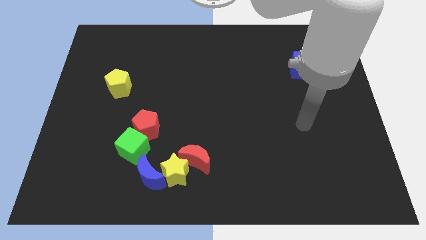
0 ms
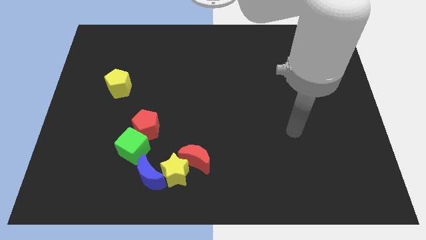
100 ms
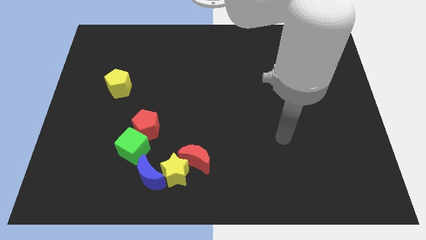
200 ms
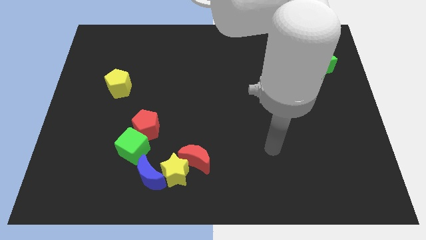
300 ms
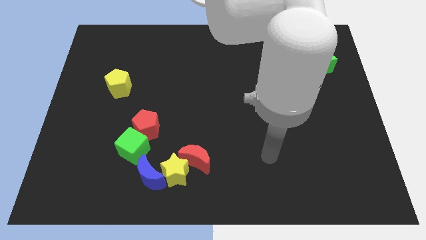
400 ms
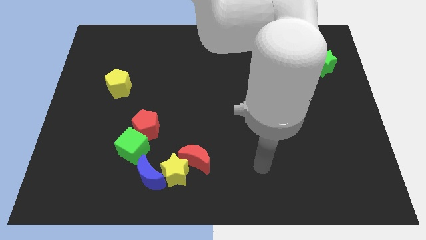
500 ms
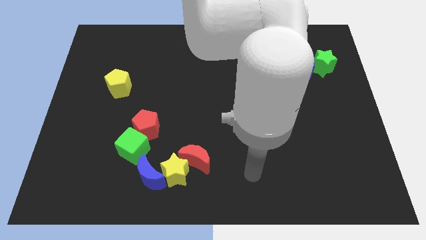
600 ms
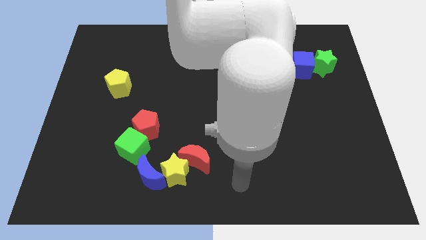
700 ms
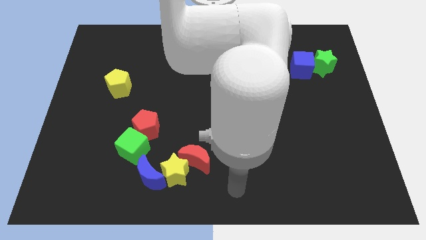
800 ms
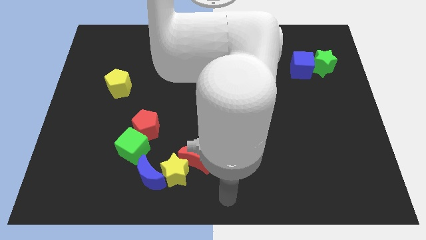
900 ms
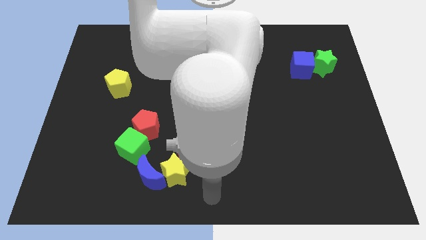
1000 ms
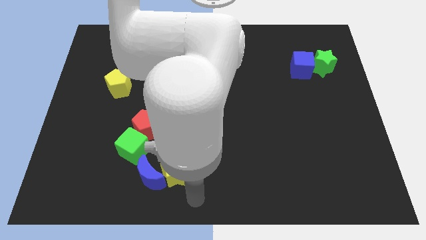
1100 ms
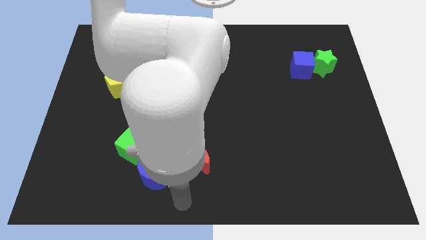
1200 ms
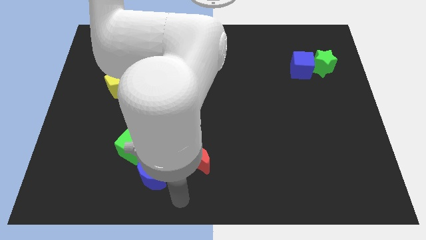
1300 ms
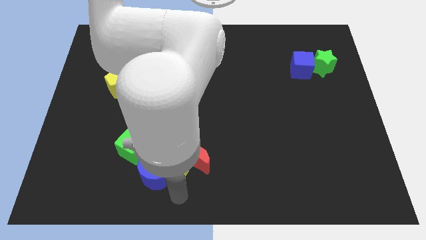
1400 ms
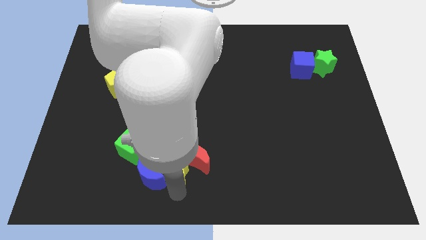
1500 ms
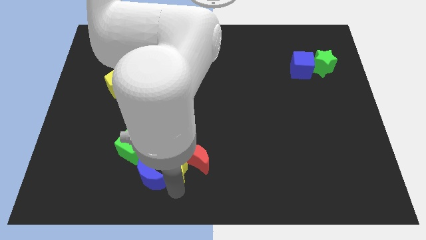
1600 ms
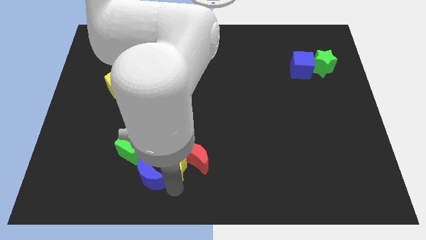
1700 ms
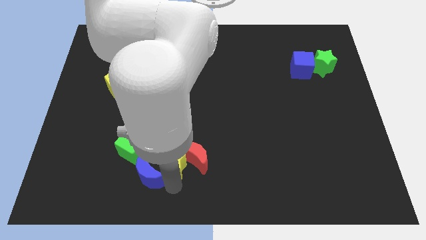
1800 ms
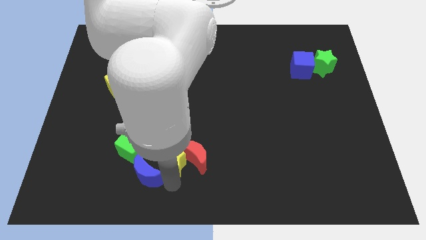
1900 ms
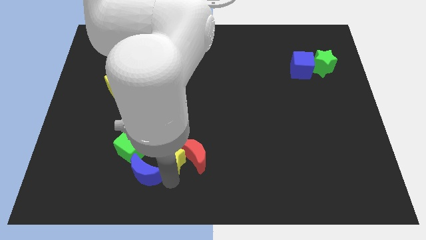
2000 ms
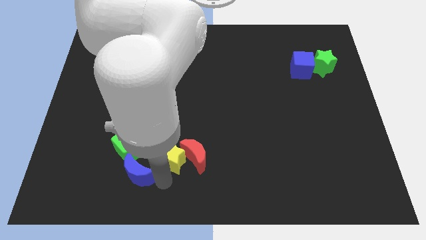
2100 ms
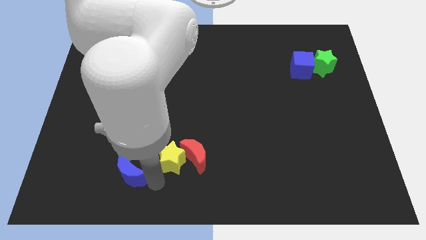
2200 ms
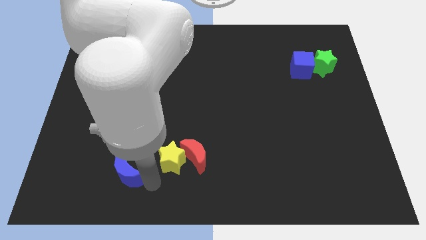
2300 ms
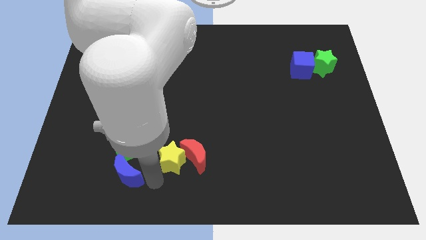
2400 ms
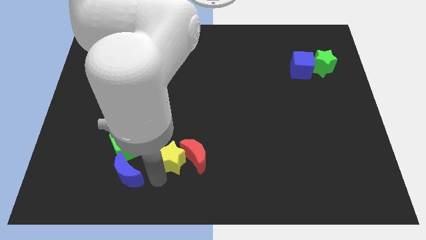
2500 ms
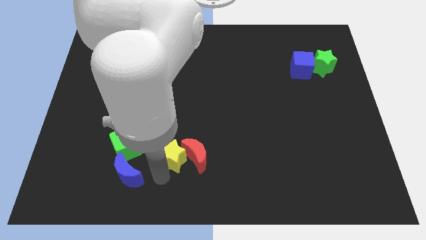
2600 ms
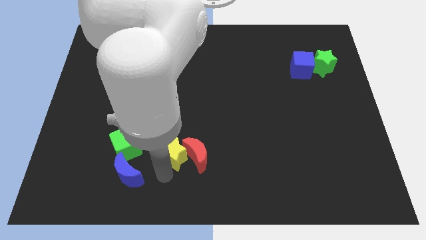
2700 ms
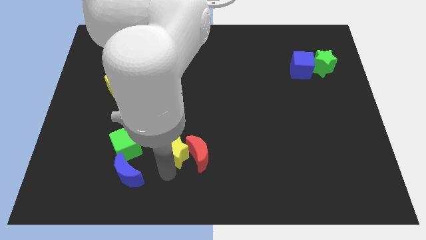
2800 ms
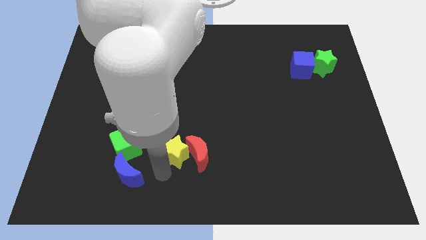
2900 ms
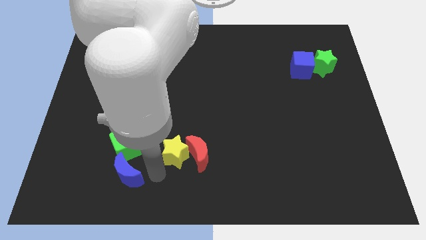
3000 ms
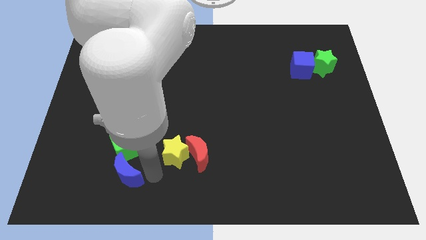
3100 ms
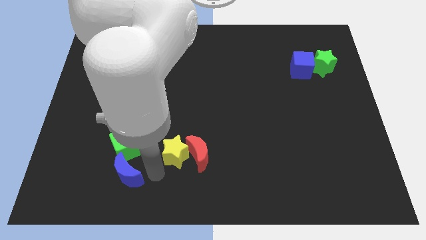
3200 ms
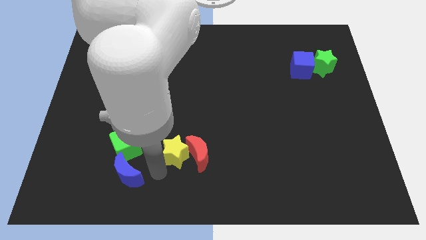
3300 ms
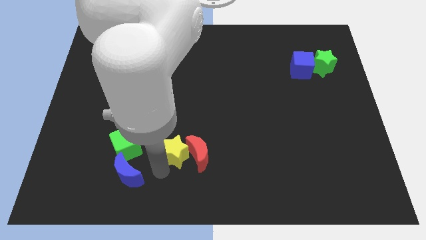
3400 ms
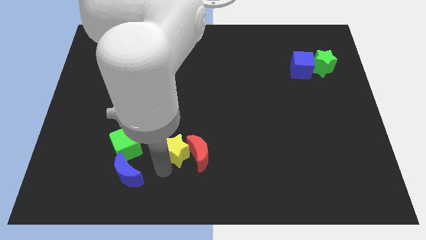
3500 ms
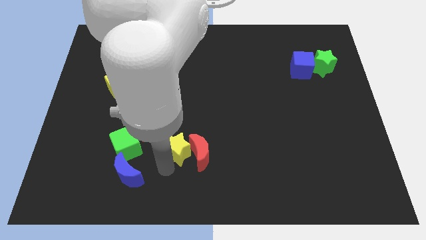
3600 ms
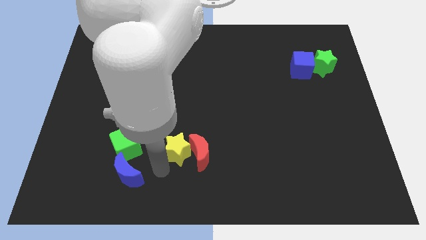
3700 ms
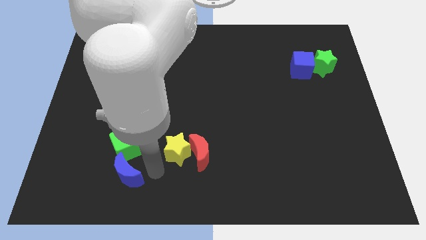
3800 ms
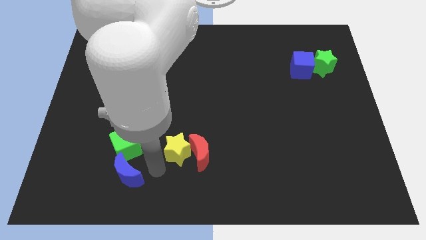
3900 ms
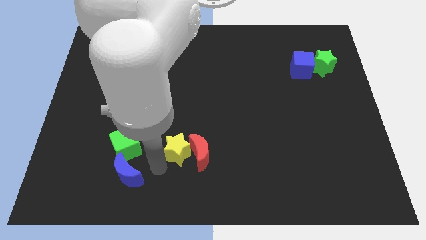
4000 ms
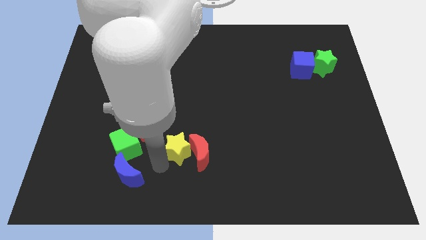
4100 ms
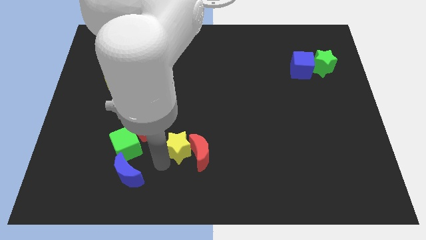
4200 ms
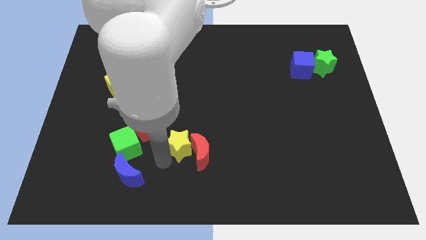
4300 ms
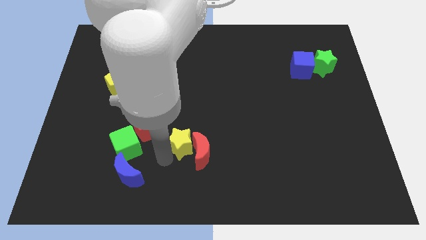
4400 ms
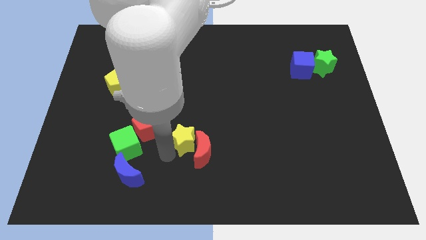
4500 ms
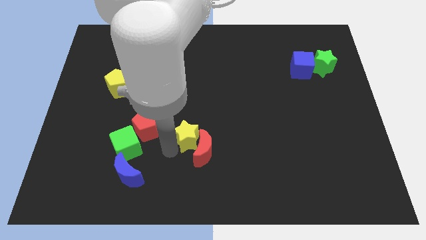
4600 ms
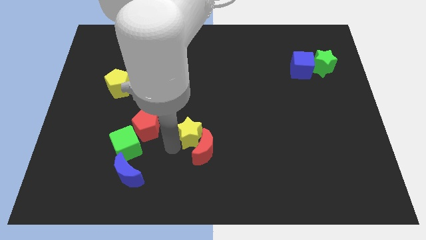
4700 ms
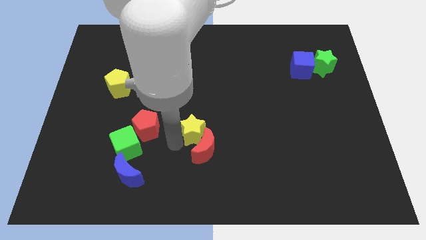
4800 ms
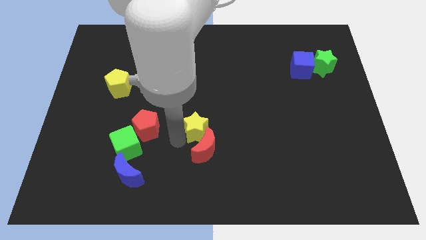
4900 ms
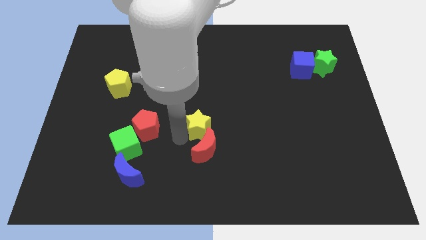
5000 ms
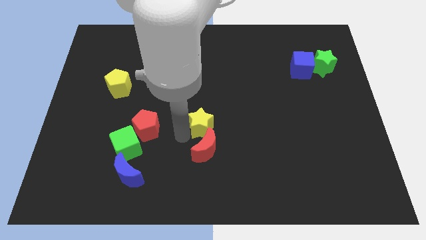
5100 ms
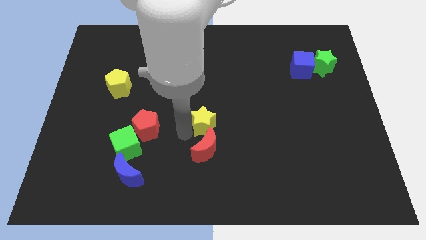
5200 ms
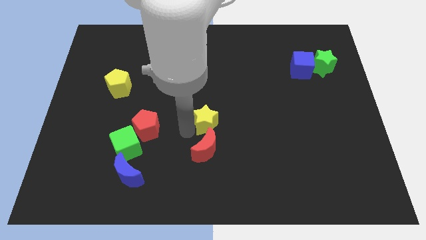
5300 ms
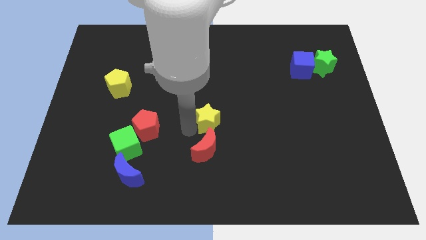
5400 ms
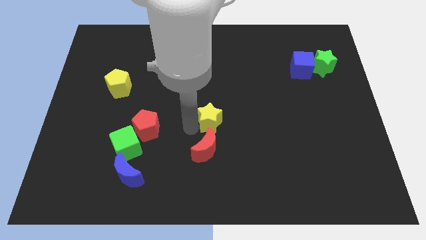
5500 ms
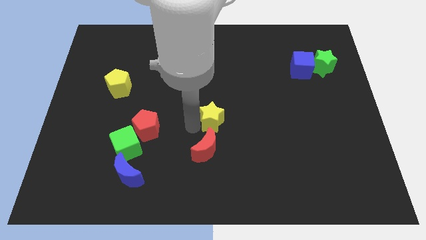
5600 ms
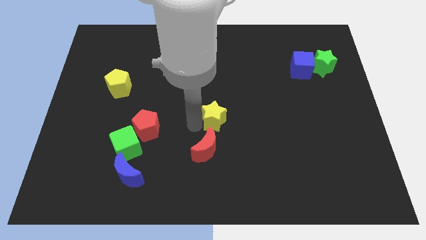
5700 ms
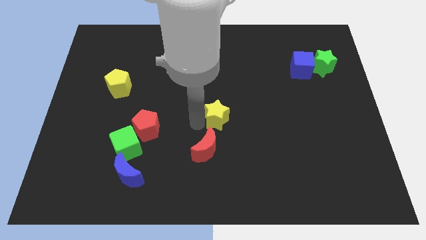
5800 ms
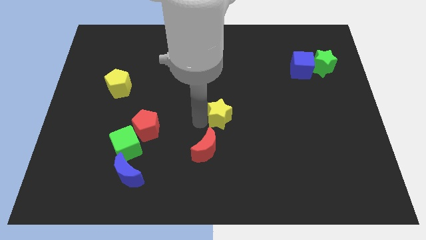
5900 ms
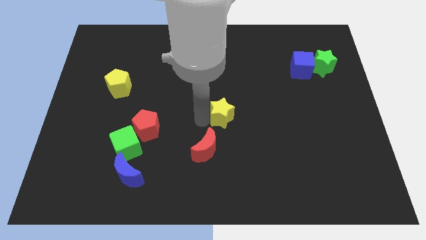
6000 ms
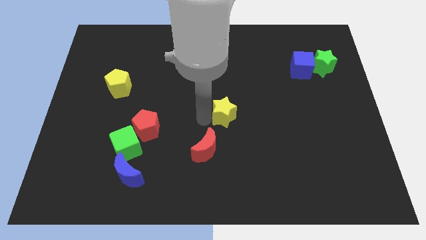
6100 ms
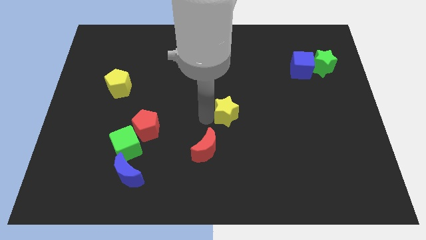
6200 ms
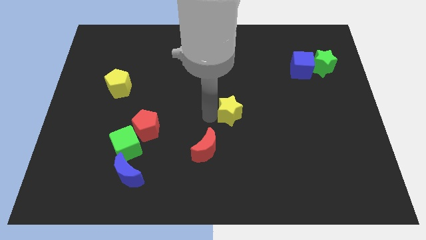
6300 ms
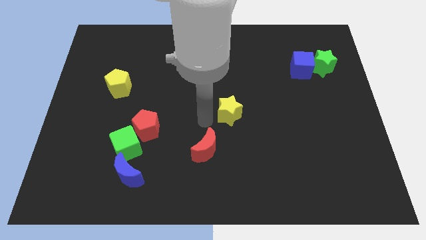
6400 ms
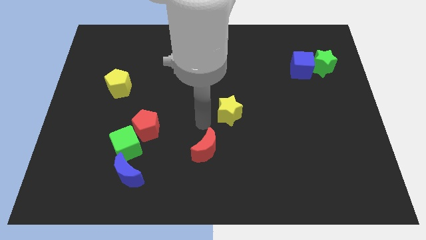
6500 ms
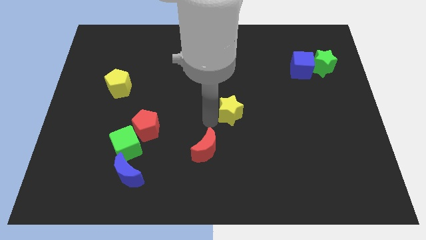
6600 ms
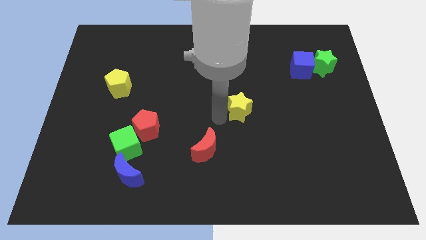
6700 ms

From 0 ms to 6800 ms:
slide the yellow star upwards and right

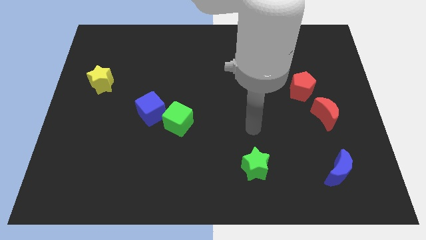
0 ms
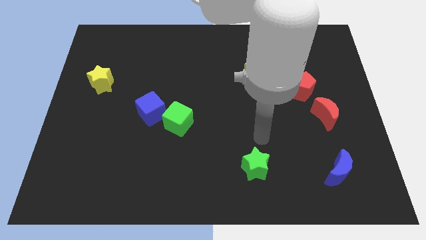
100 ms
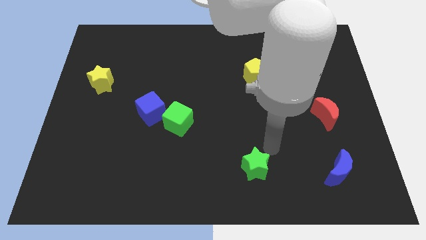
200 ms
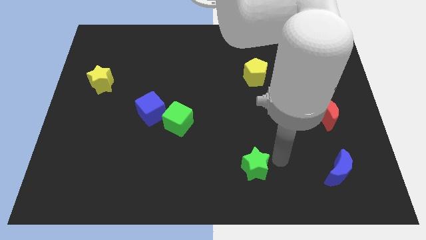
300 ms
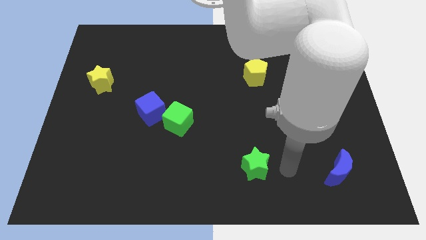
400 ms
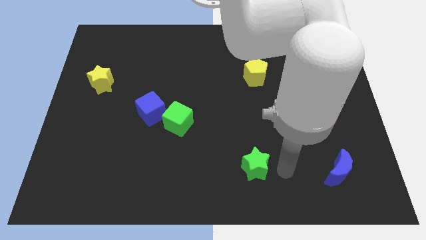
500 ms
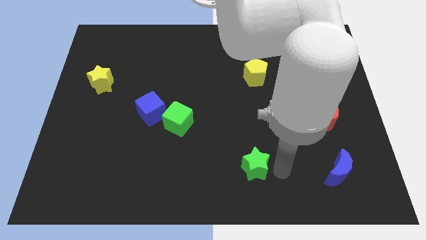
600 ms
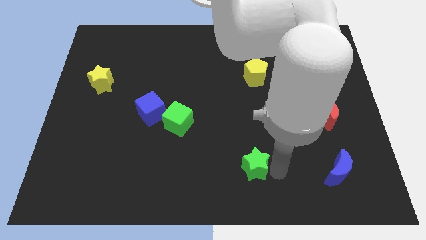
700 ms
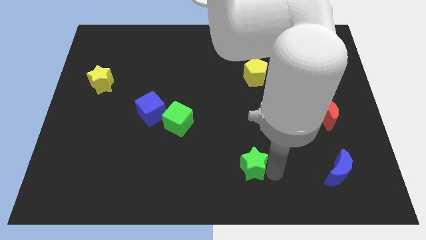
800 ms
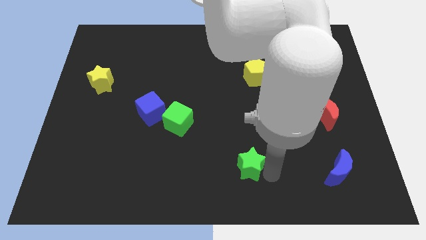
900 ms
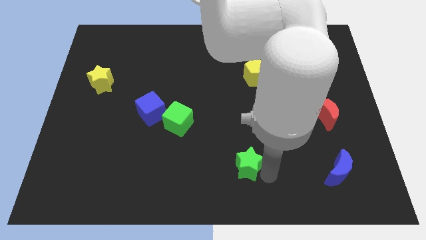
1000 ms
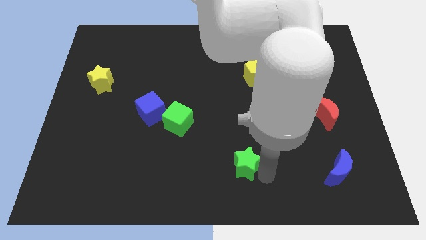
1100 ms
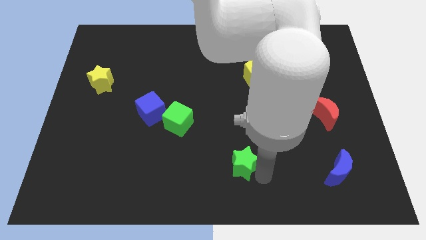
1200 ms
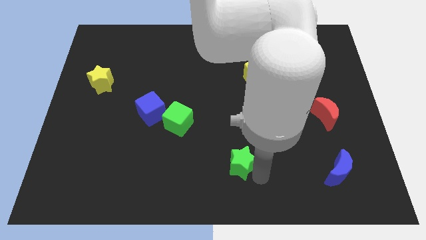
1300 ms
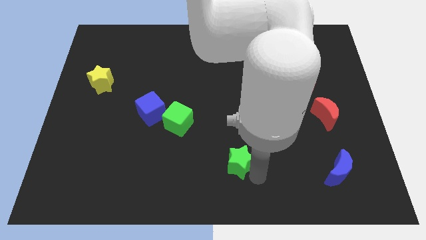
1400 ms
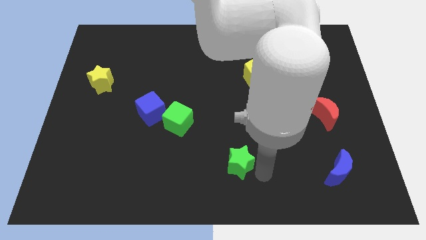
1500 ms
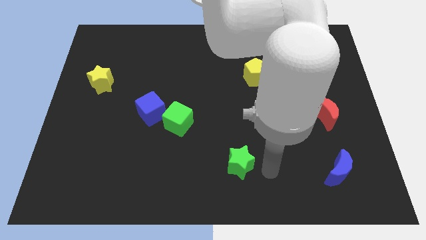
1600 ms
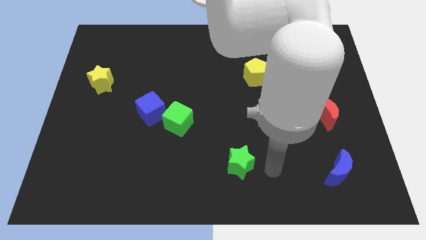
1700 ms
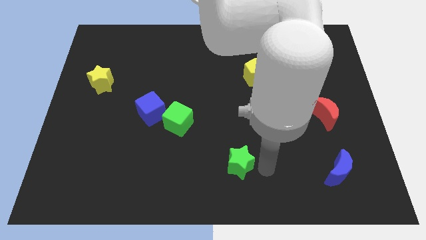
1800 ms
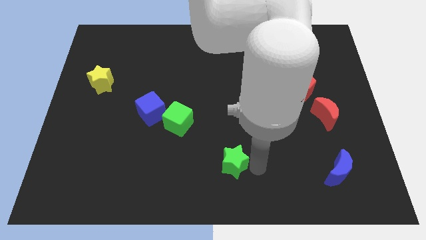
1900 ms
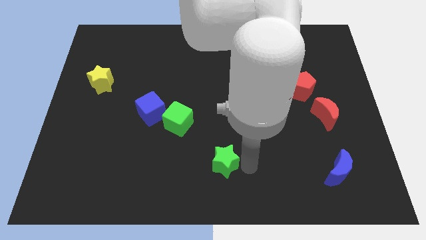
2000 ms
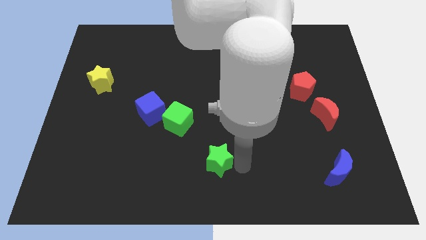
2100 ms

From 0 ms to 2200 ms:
slightly push the green star left
